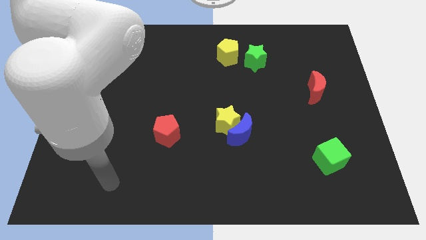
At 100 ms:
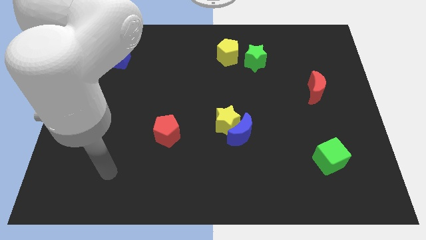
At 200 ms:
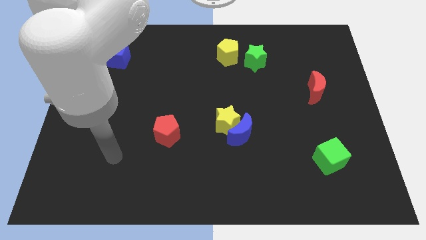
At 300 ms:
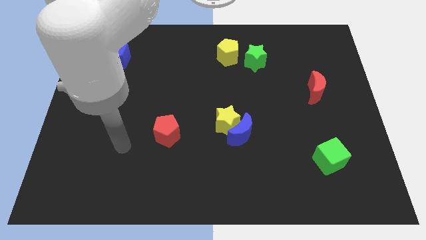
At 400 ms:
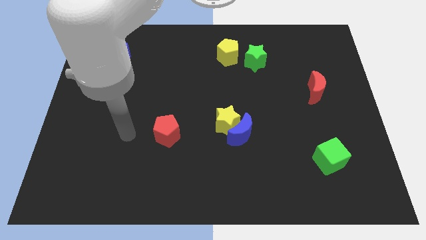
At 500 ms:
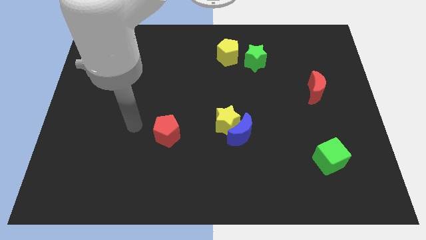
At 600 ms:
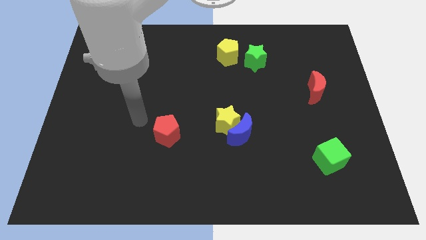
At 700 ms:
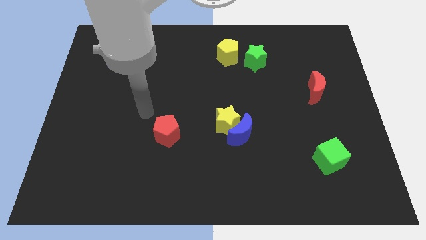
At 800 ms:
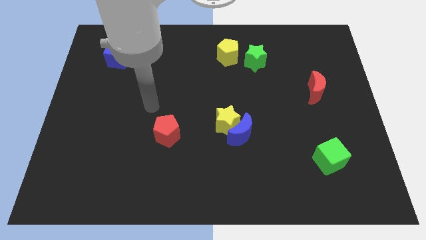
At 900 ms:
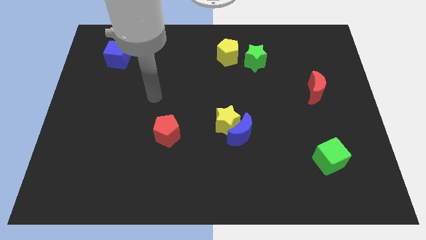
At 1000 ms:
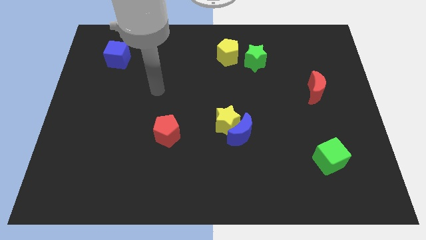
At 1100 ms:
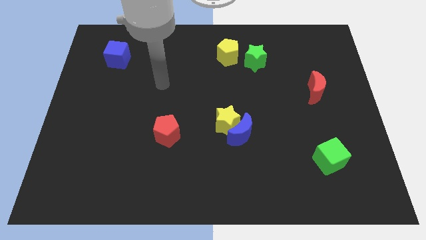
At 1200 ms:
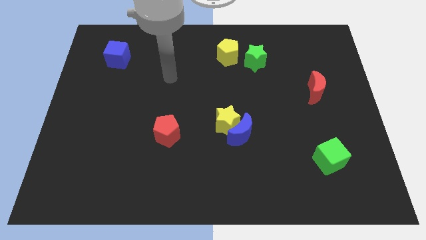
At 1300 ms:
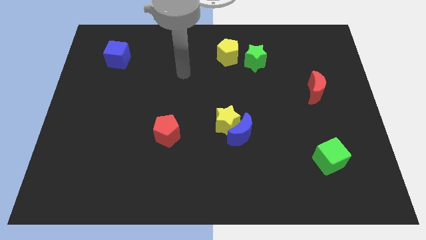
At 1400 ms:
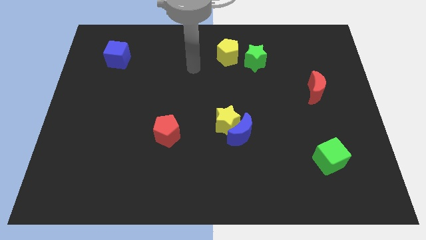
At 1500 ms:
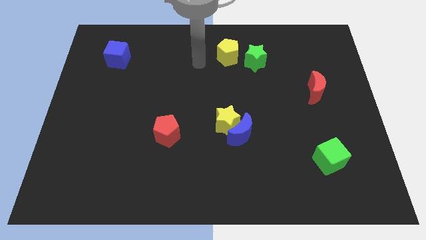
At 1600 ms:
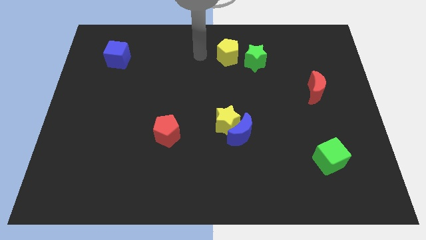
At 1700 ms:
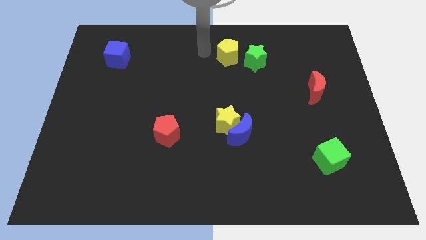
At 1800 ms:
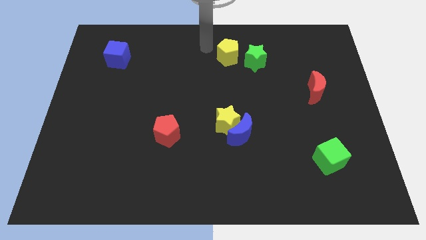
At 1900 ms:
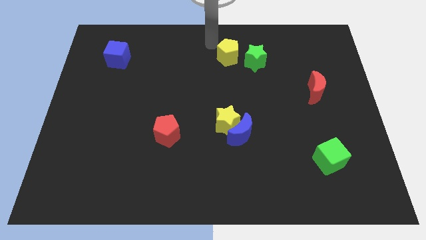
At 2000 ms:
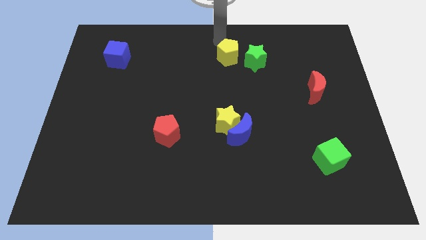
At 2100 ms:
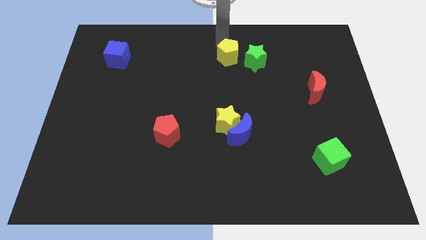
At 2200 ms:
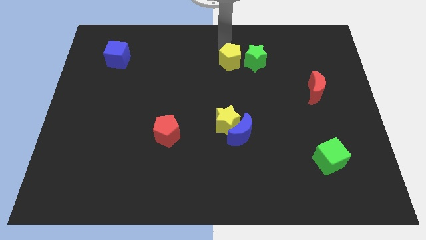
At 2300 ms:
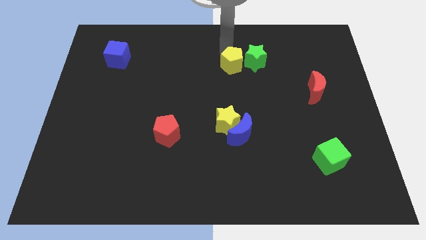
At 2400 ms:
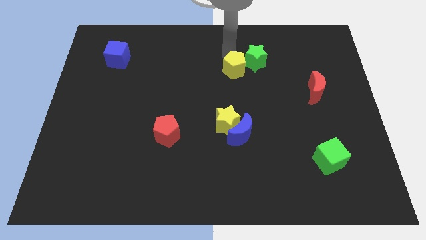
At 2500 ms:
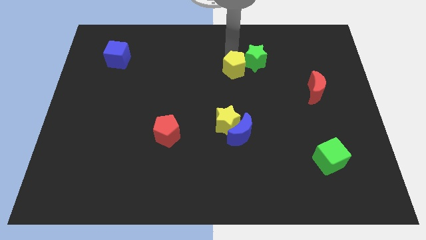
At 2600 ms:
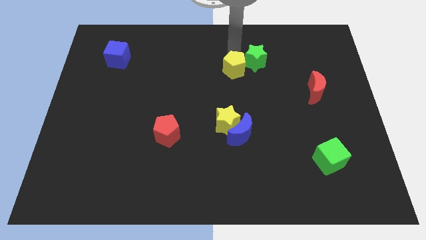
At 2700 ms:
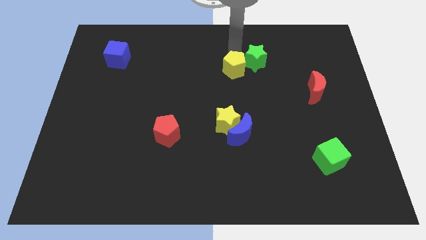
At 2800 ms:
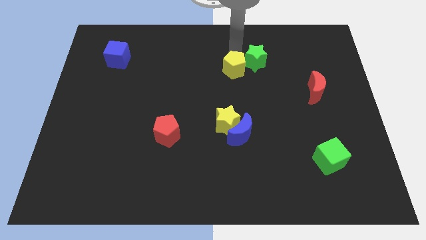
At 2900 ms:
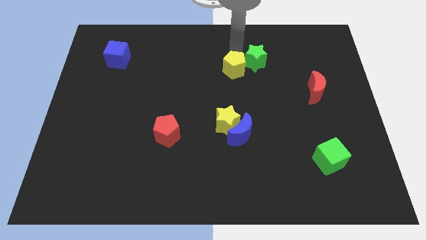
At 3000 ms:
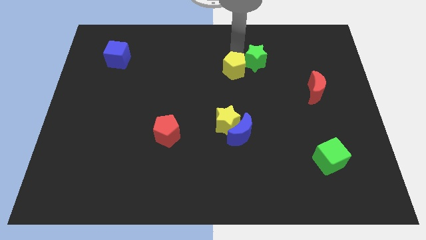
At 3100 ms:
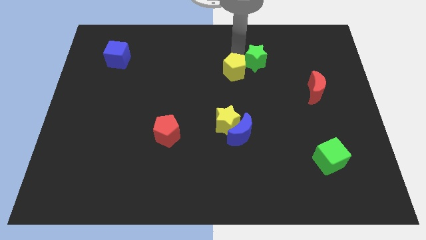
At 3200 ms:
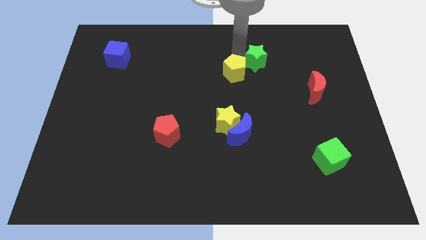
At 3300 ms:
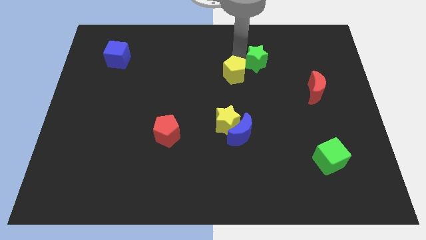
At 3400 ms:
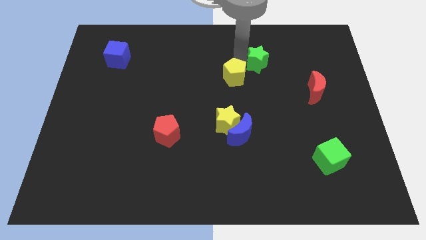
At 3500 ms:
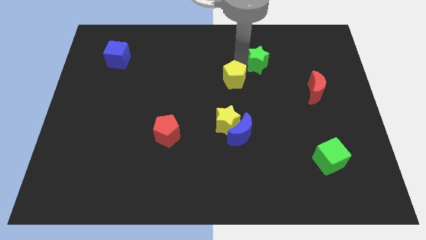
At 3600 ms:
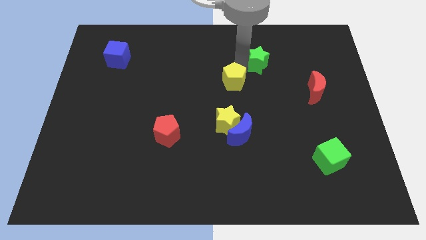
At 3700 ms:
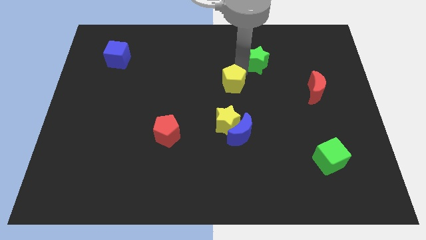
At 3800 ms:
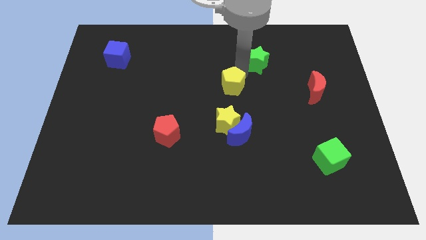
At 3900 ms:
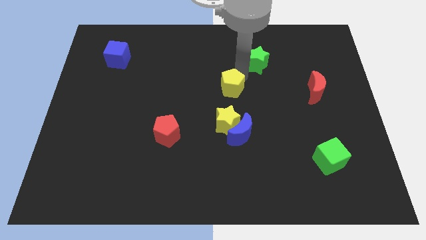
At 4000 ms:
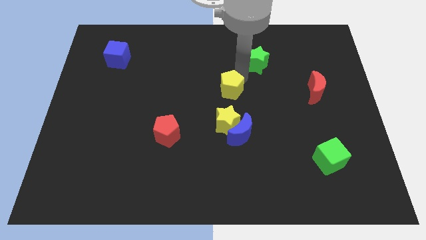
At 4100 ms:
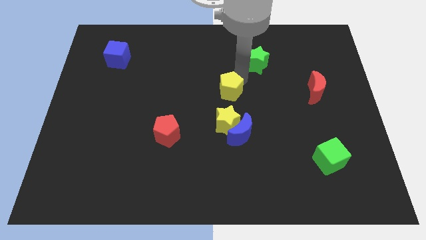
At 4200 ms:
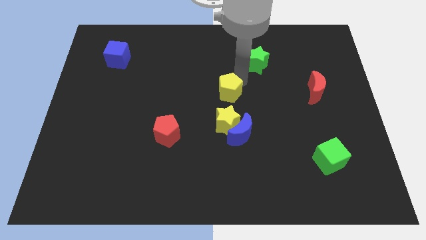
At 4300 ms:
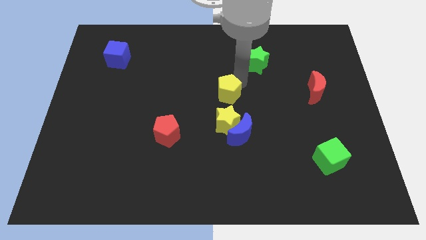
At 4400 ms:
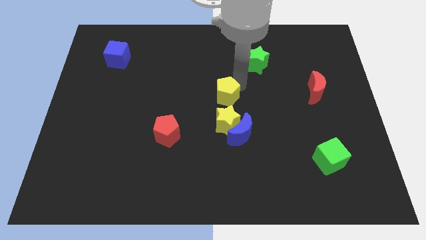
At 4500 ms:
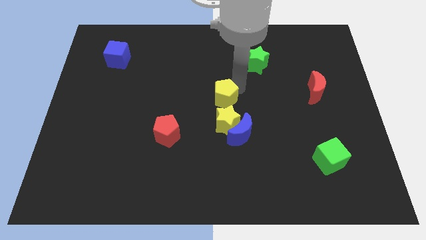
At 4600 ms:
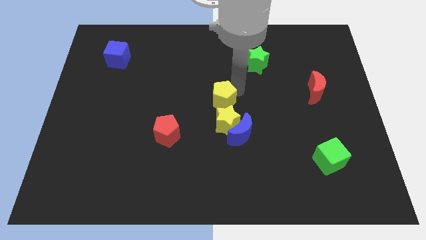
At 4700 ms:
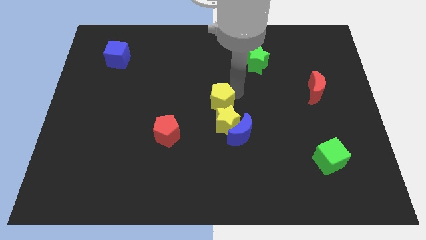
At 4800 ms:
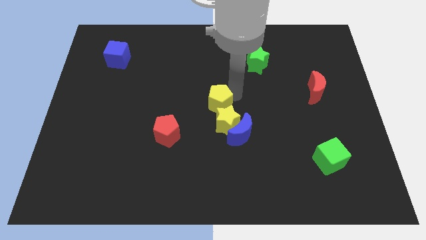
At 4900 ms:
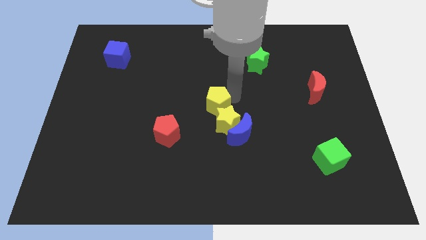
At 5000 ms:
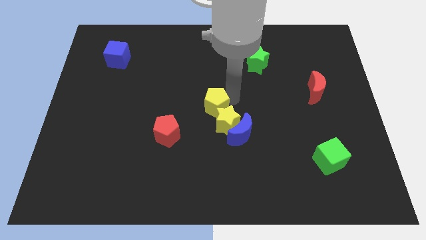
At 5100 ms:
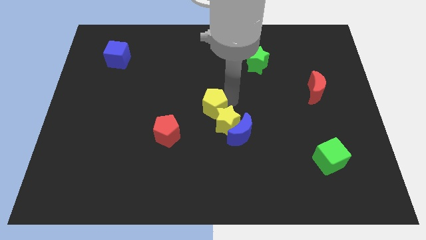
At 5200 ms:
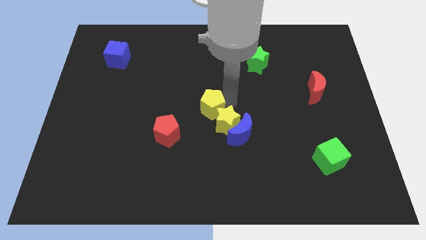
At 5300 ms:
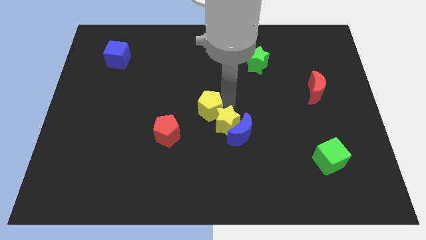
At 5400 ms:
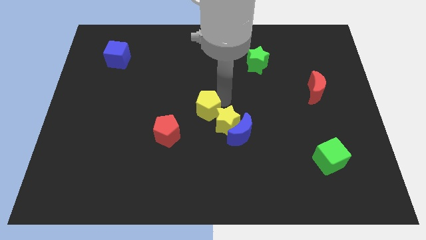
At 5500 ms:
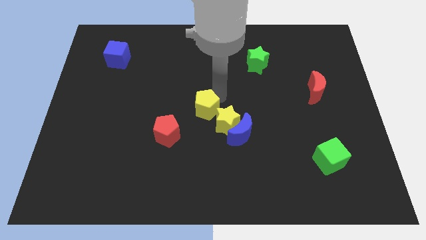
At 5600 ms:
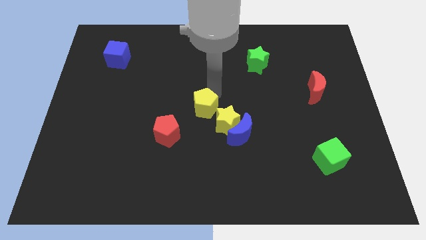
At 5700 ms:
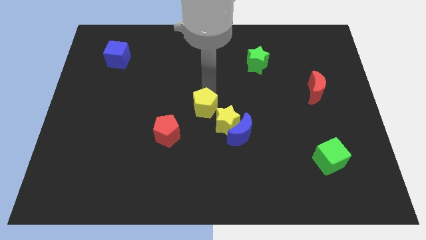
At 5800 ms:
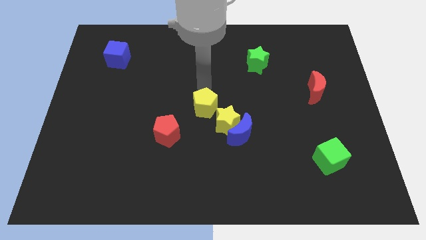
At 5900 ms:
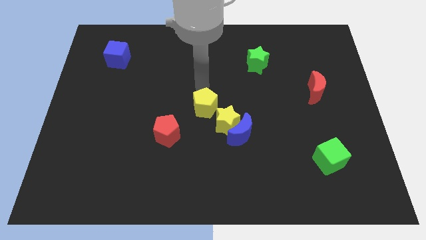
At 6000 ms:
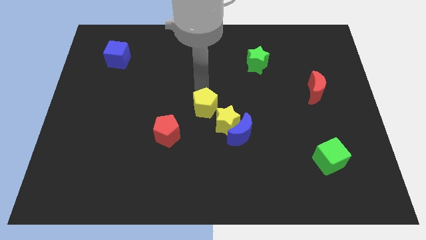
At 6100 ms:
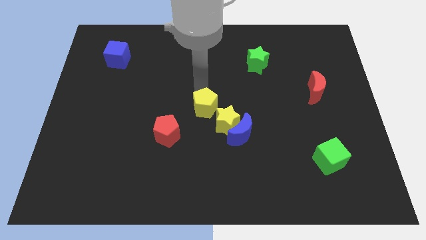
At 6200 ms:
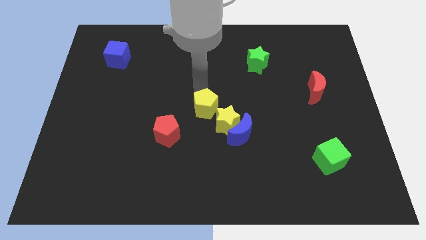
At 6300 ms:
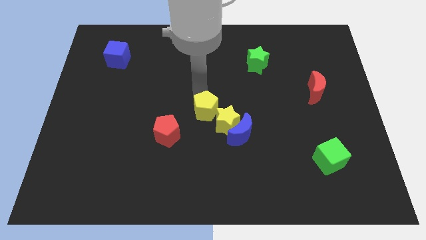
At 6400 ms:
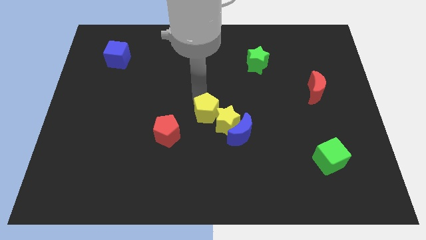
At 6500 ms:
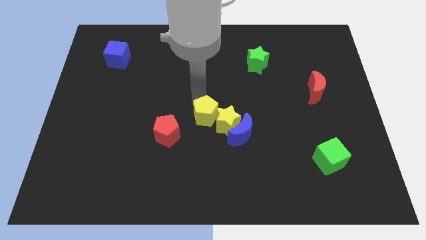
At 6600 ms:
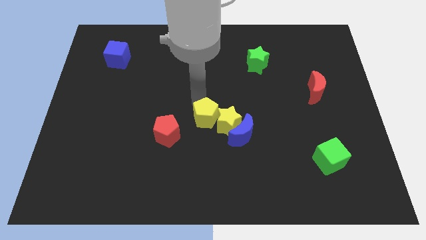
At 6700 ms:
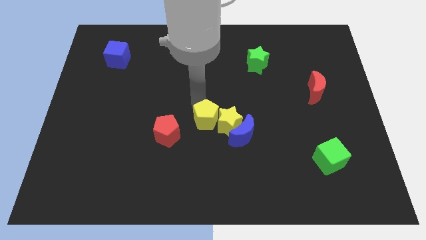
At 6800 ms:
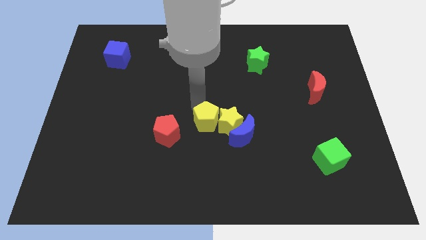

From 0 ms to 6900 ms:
slide the yellow pentagon downwards

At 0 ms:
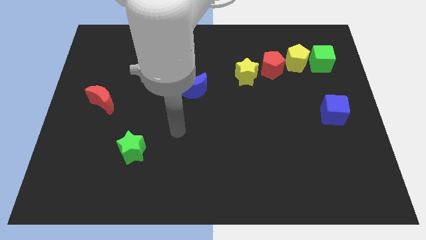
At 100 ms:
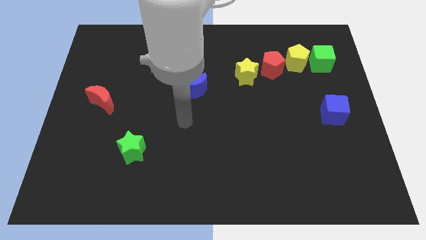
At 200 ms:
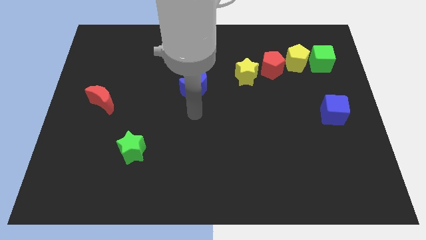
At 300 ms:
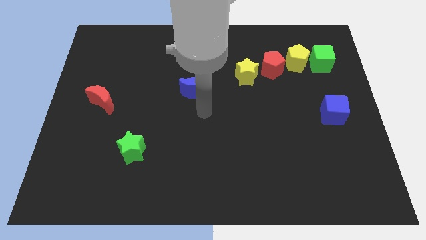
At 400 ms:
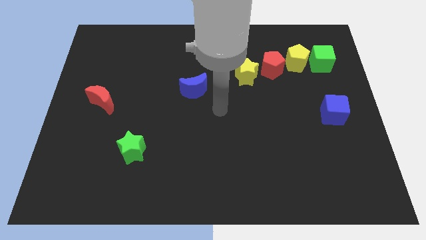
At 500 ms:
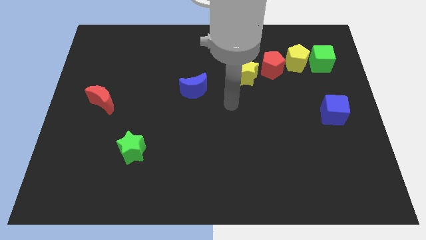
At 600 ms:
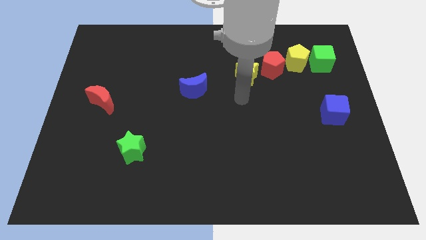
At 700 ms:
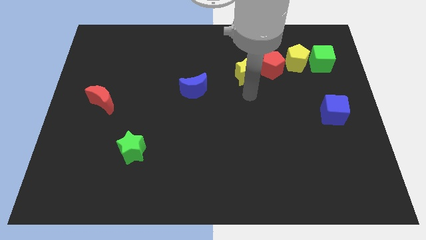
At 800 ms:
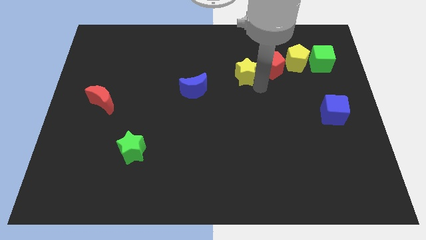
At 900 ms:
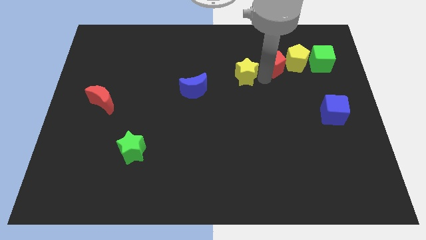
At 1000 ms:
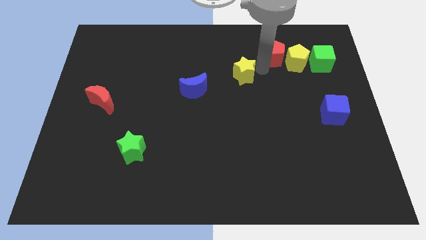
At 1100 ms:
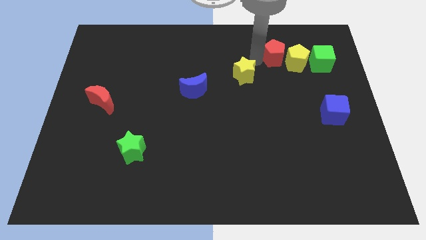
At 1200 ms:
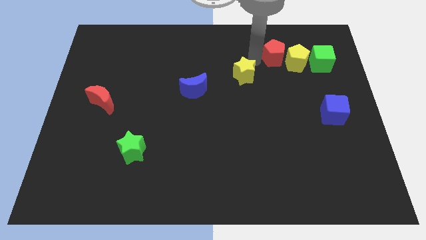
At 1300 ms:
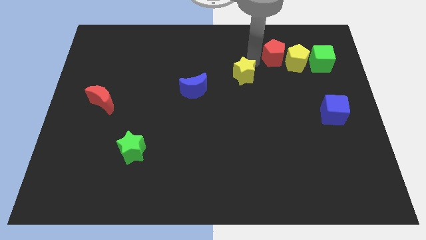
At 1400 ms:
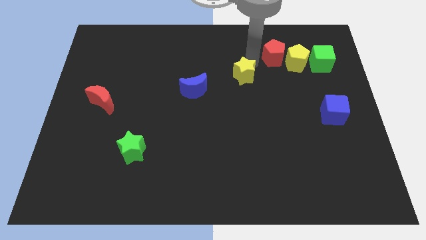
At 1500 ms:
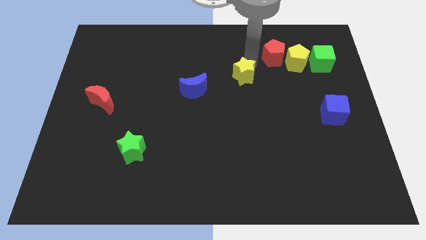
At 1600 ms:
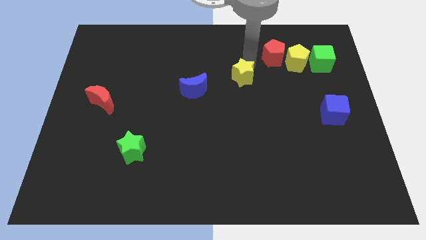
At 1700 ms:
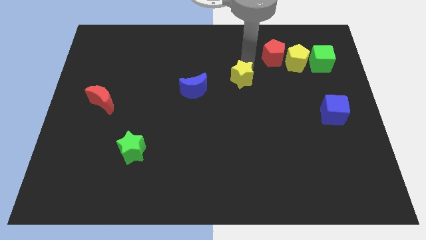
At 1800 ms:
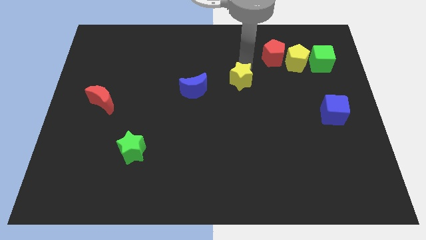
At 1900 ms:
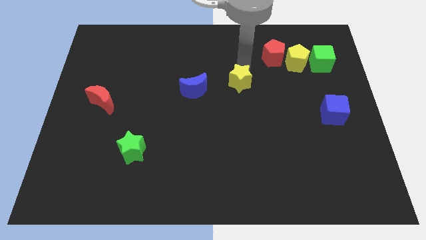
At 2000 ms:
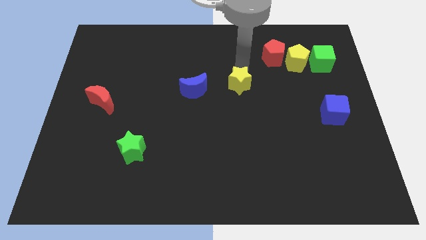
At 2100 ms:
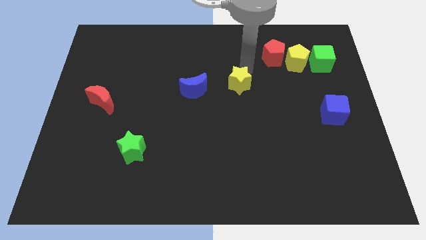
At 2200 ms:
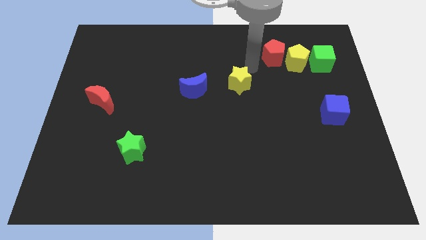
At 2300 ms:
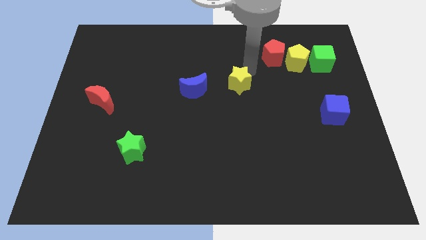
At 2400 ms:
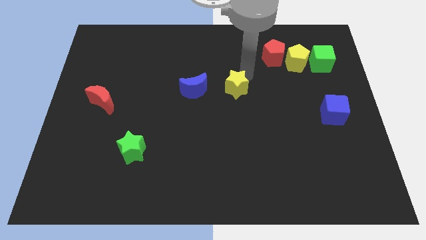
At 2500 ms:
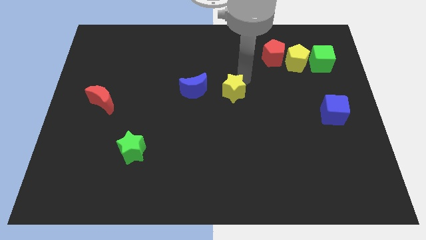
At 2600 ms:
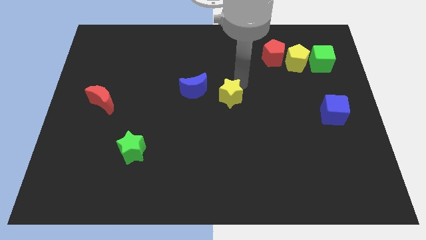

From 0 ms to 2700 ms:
push the yellow star diagonally downwards and left a little
